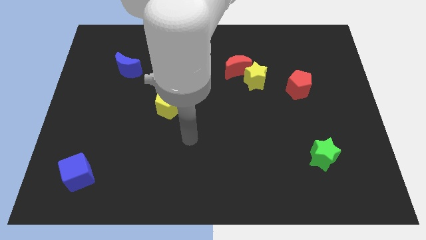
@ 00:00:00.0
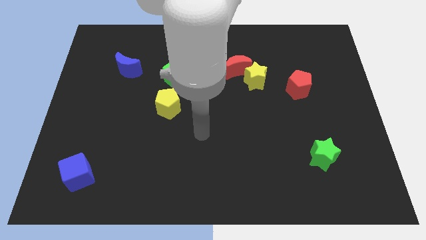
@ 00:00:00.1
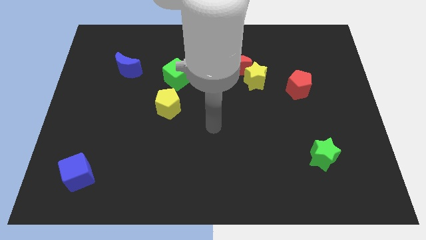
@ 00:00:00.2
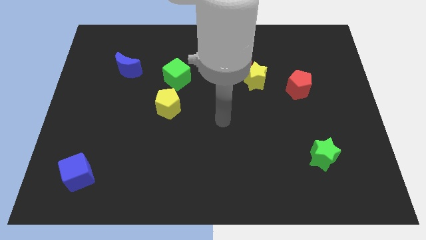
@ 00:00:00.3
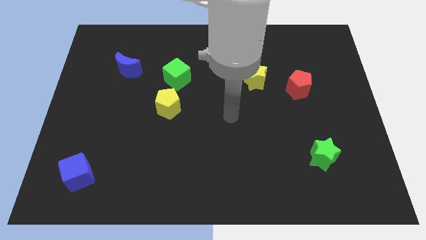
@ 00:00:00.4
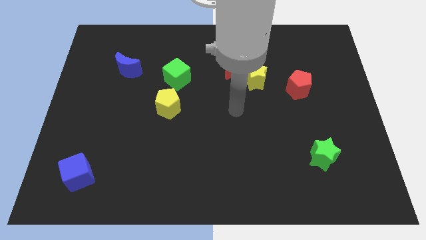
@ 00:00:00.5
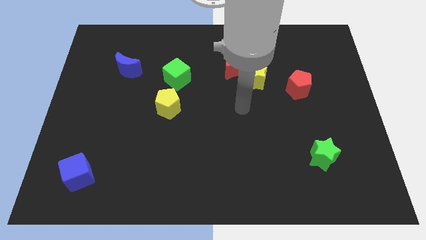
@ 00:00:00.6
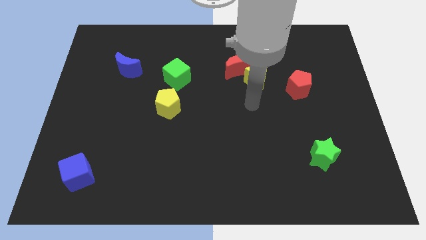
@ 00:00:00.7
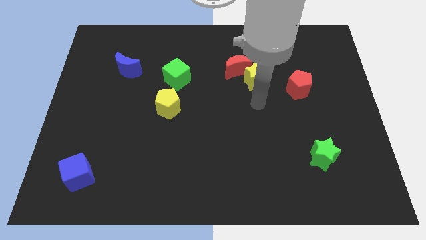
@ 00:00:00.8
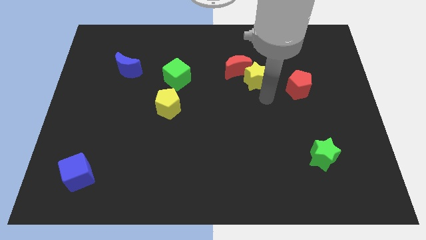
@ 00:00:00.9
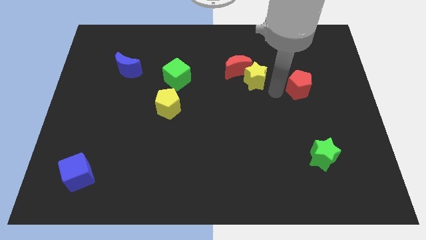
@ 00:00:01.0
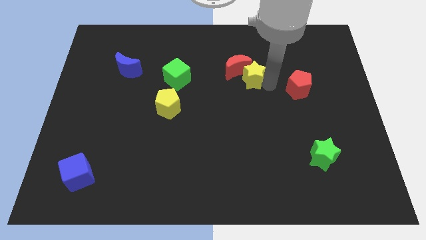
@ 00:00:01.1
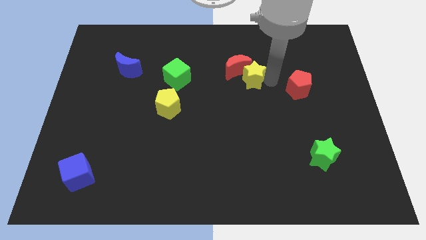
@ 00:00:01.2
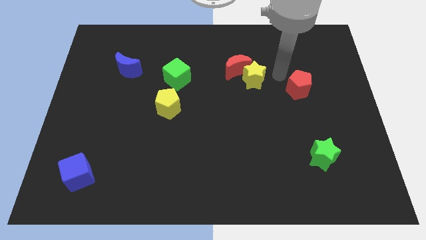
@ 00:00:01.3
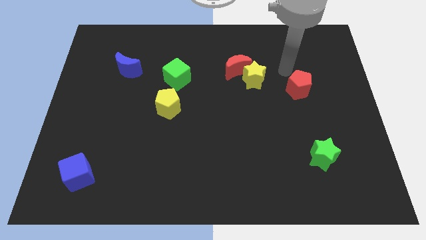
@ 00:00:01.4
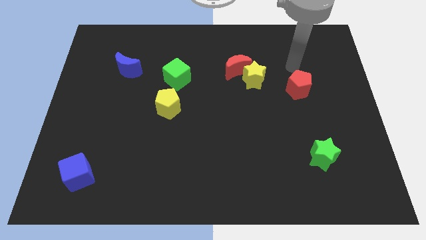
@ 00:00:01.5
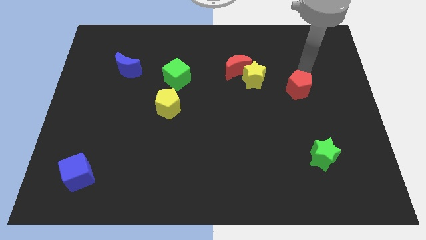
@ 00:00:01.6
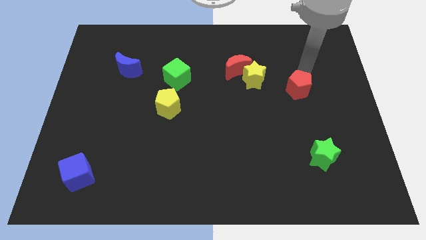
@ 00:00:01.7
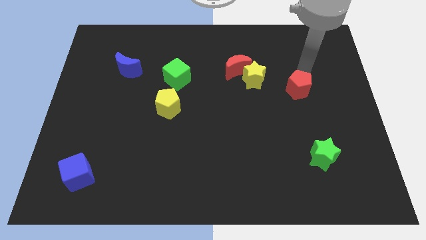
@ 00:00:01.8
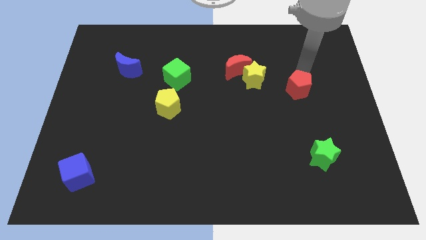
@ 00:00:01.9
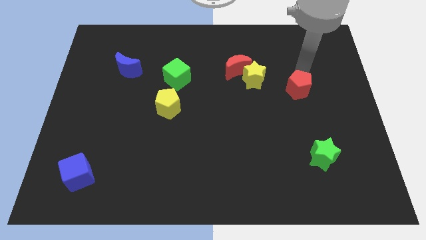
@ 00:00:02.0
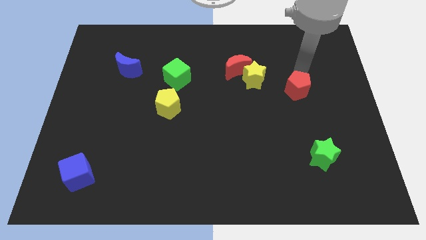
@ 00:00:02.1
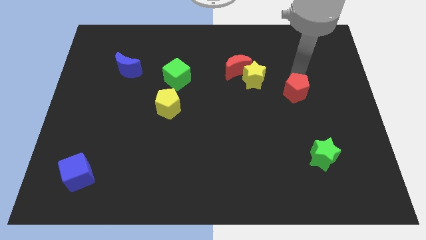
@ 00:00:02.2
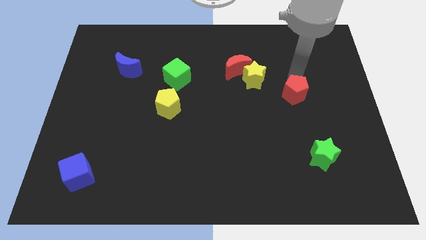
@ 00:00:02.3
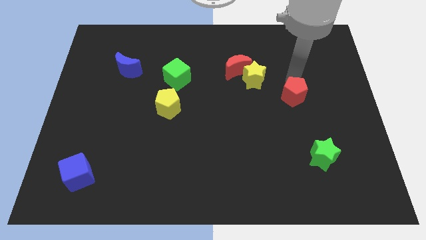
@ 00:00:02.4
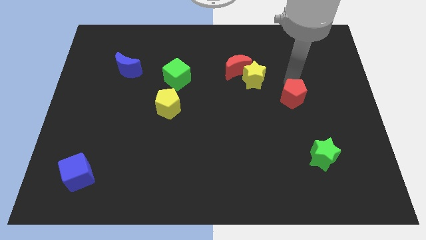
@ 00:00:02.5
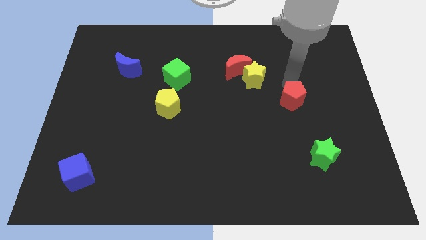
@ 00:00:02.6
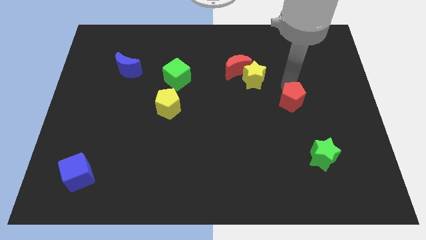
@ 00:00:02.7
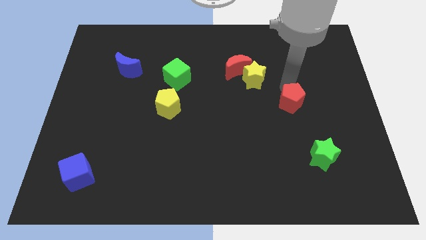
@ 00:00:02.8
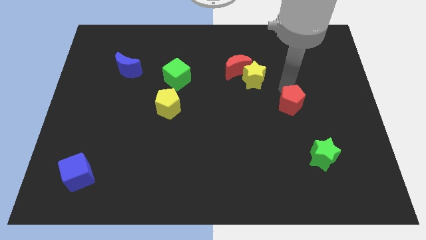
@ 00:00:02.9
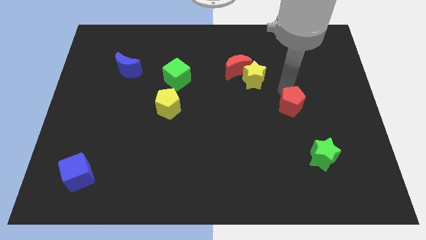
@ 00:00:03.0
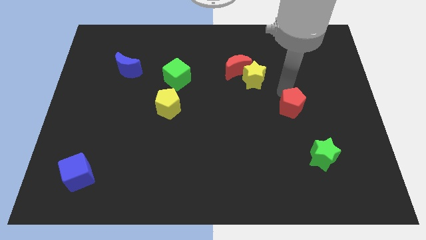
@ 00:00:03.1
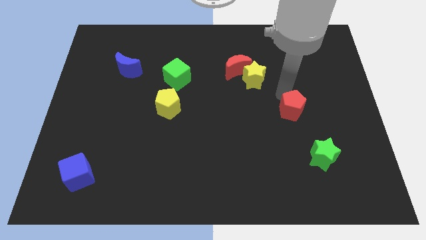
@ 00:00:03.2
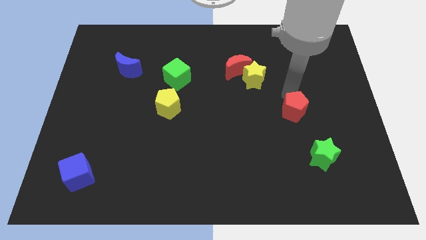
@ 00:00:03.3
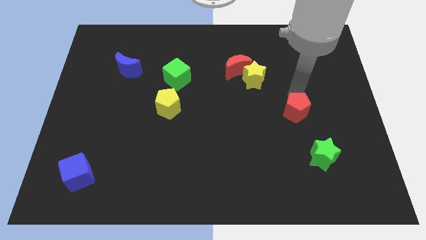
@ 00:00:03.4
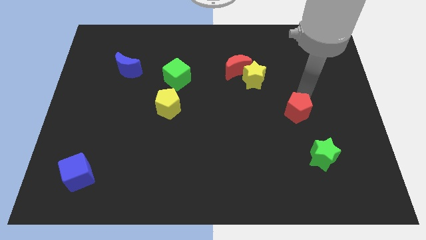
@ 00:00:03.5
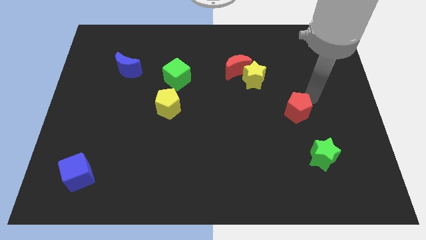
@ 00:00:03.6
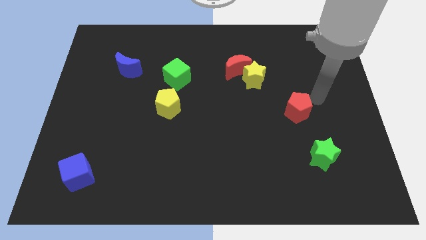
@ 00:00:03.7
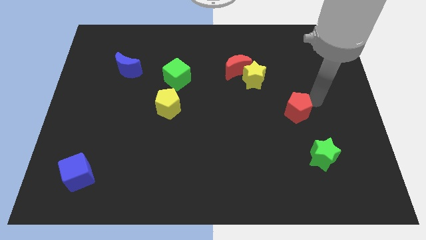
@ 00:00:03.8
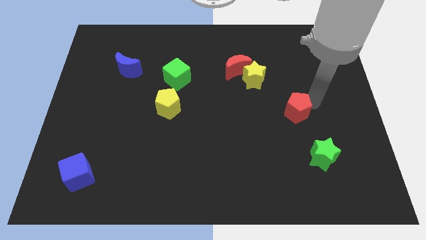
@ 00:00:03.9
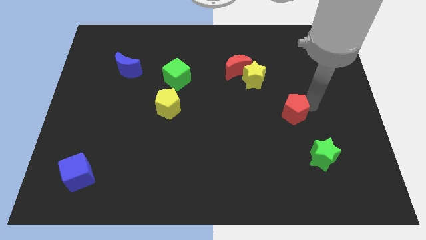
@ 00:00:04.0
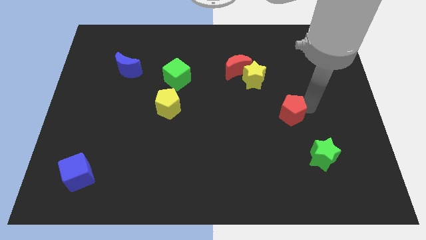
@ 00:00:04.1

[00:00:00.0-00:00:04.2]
slightly move the red pentagon down and then to the left

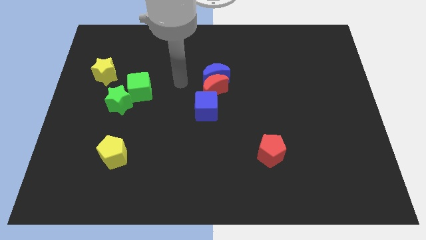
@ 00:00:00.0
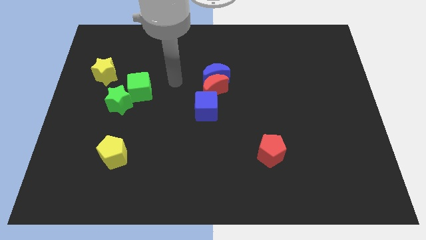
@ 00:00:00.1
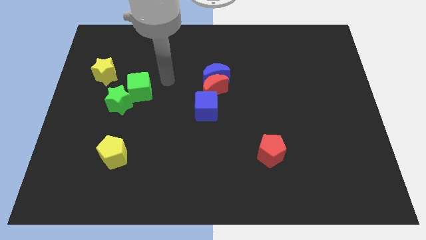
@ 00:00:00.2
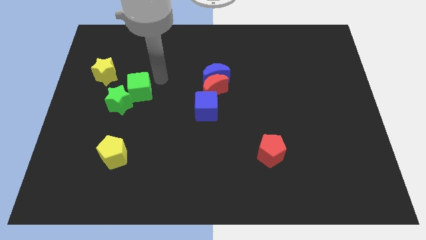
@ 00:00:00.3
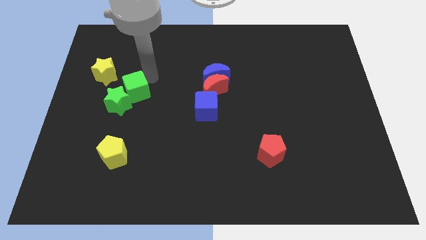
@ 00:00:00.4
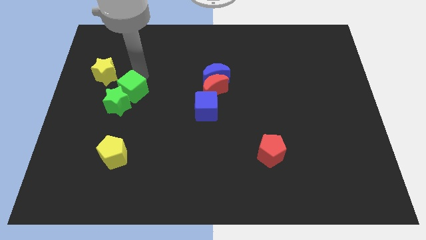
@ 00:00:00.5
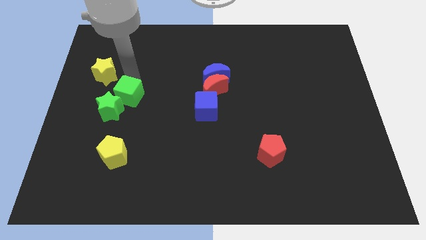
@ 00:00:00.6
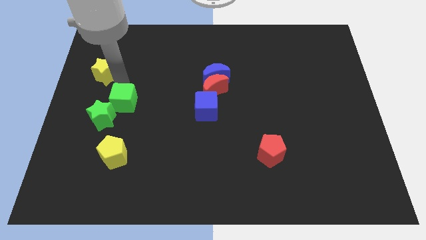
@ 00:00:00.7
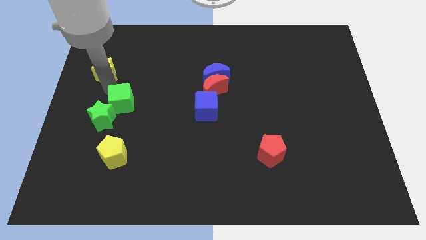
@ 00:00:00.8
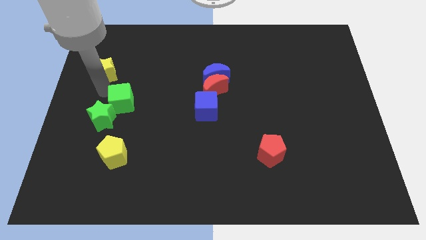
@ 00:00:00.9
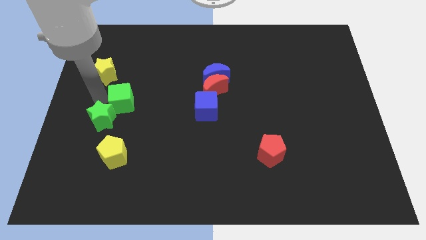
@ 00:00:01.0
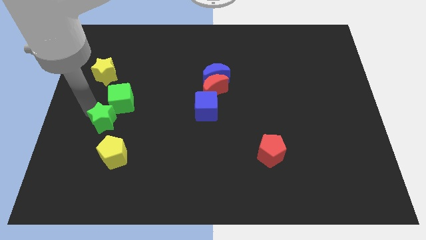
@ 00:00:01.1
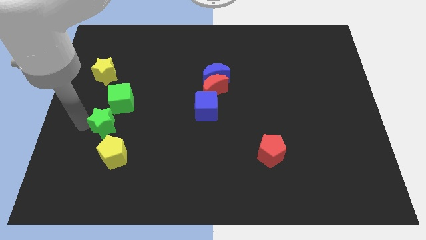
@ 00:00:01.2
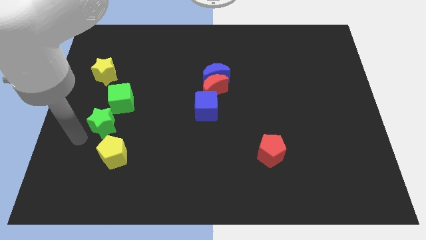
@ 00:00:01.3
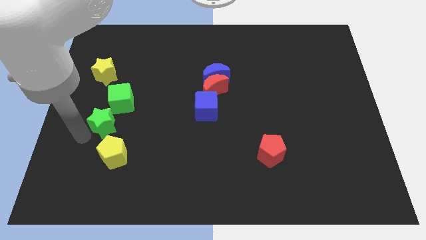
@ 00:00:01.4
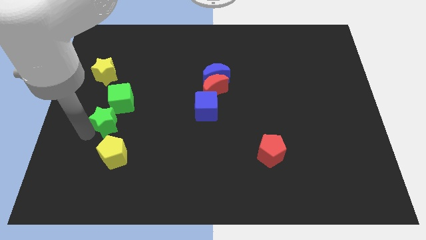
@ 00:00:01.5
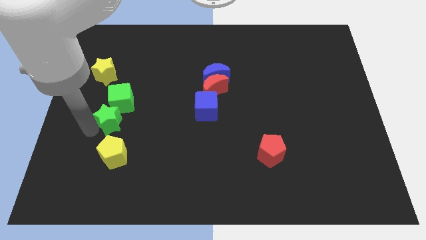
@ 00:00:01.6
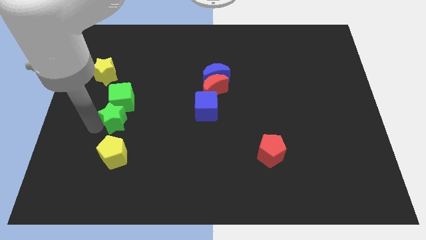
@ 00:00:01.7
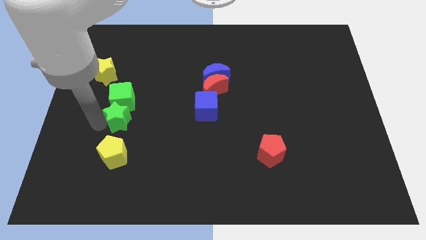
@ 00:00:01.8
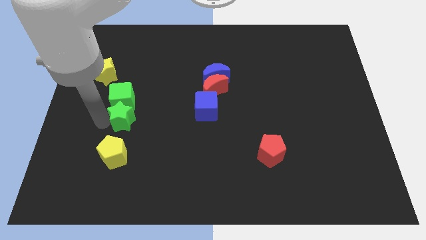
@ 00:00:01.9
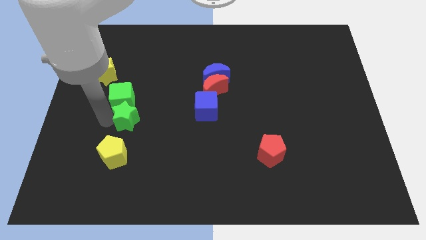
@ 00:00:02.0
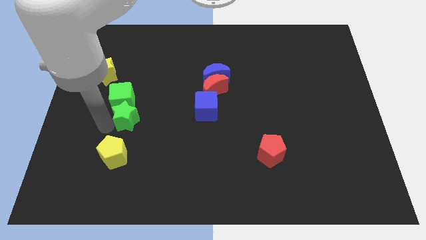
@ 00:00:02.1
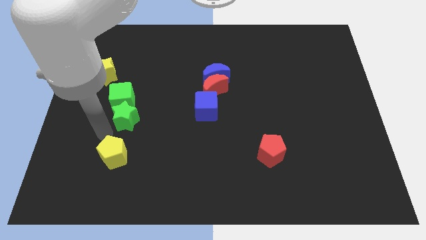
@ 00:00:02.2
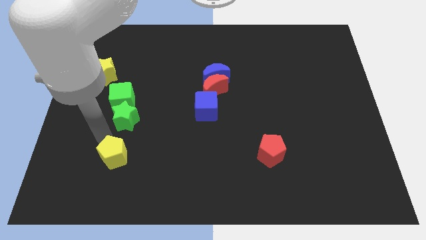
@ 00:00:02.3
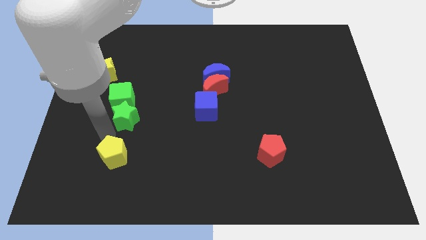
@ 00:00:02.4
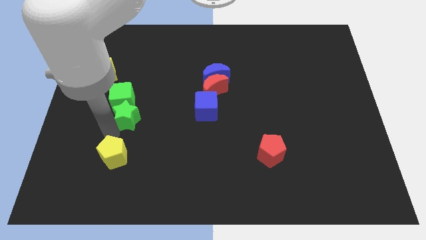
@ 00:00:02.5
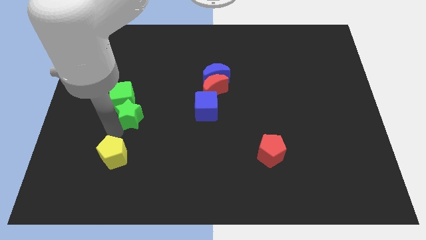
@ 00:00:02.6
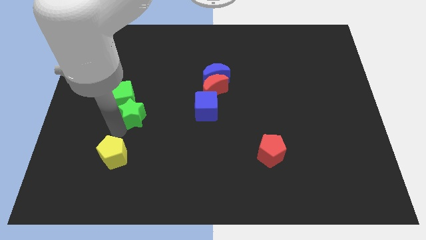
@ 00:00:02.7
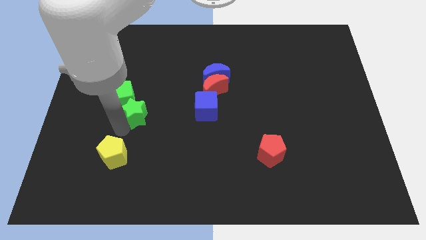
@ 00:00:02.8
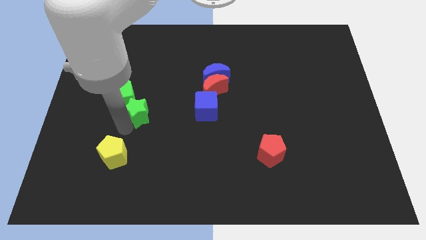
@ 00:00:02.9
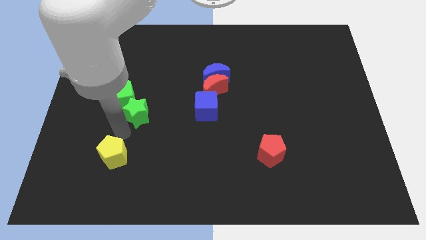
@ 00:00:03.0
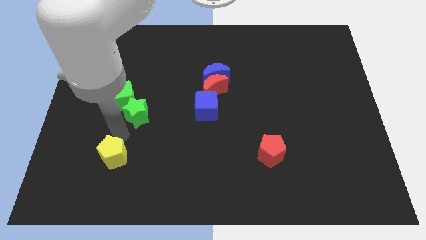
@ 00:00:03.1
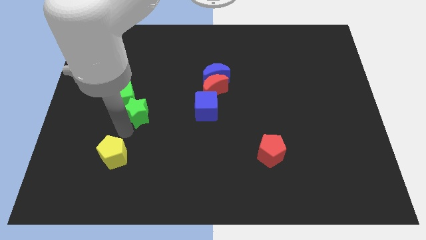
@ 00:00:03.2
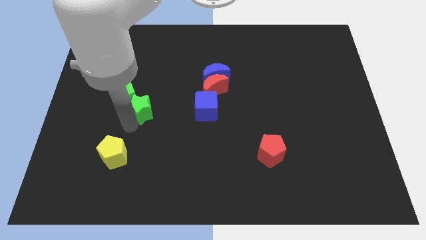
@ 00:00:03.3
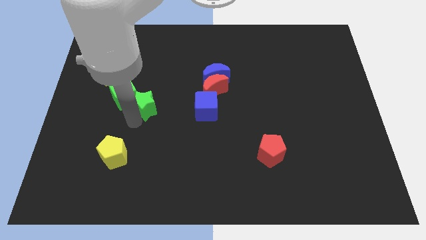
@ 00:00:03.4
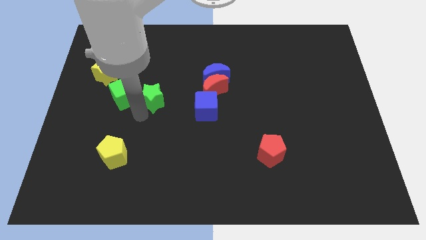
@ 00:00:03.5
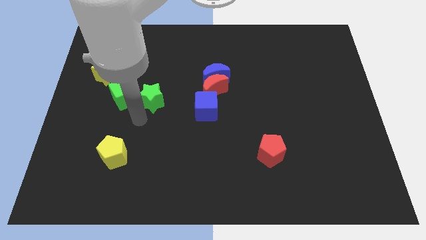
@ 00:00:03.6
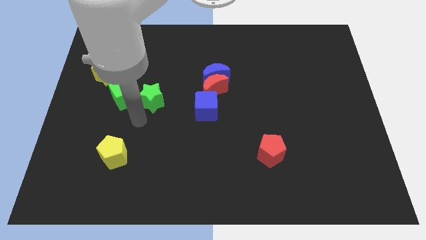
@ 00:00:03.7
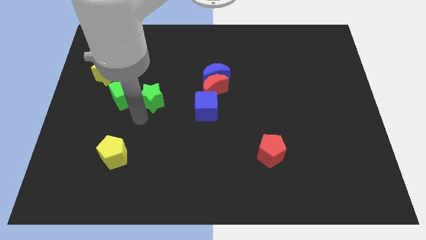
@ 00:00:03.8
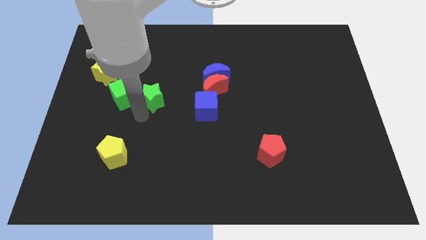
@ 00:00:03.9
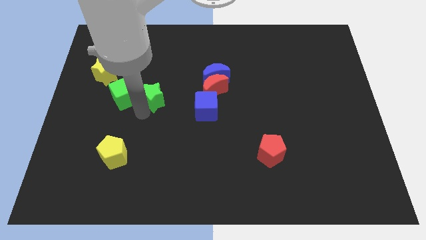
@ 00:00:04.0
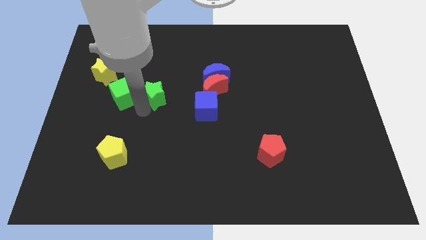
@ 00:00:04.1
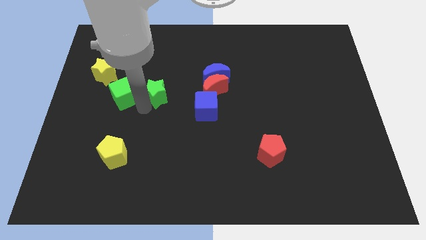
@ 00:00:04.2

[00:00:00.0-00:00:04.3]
slide the green star upwards and right a little
